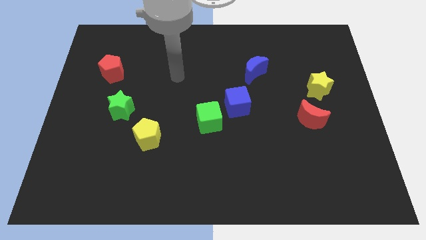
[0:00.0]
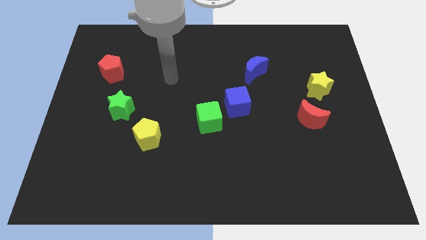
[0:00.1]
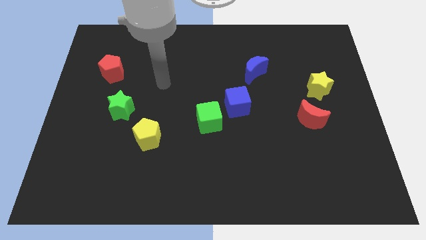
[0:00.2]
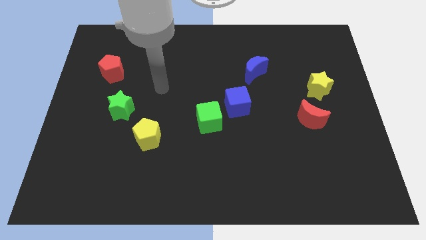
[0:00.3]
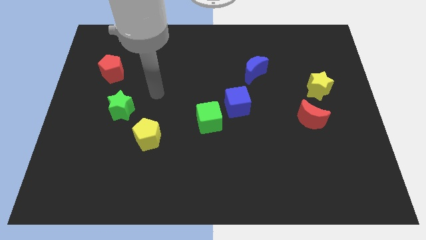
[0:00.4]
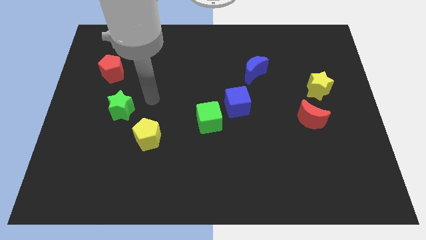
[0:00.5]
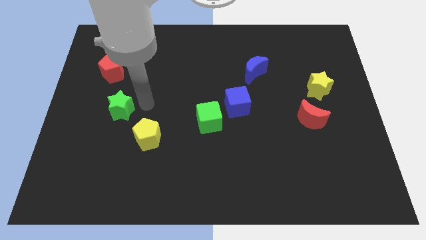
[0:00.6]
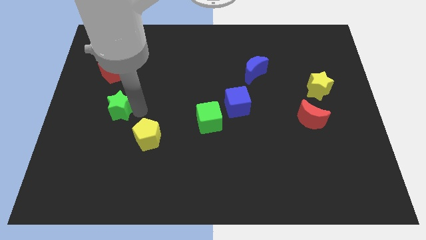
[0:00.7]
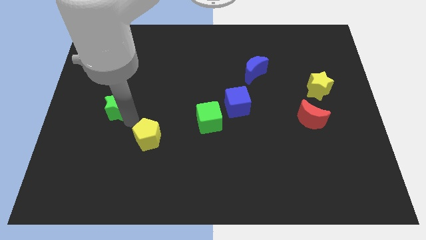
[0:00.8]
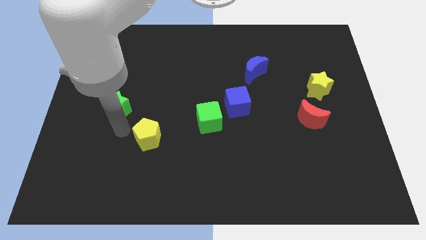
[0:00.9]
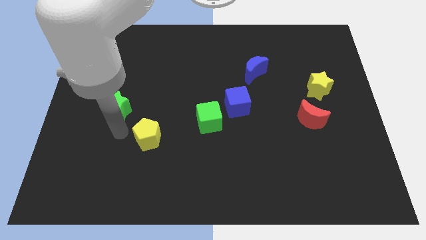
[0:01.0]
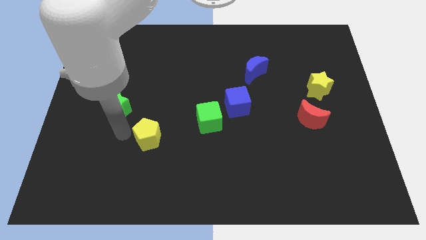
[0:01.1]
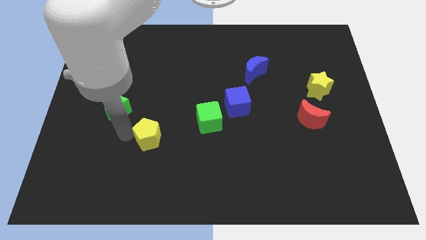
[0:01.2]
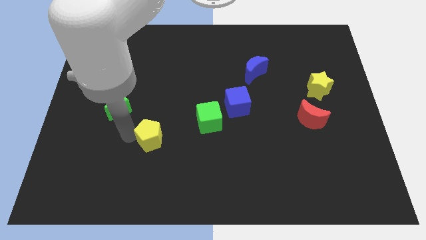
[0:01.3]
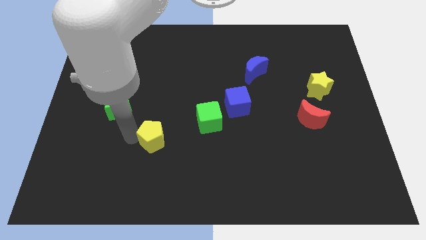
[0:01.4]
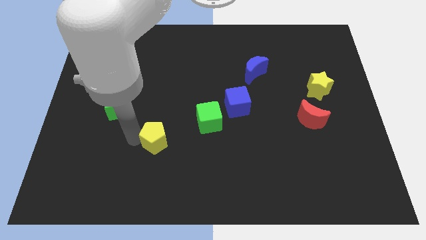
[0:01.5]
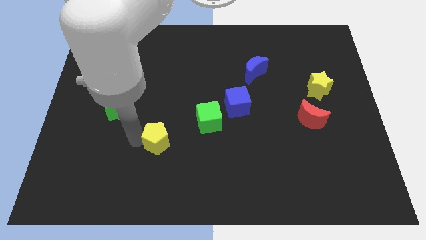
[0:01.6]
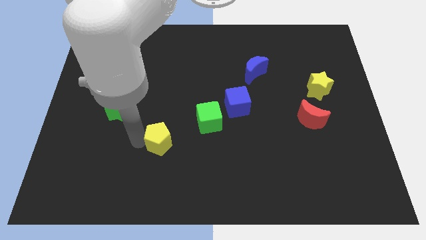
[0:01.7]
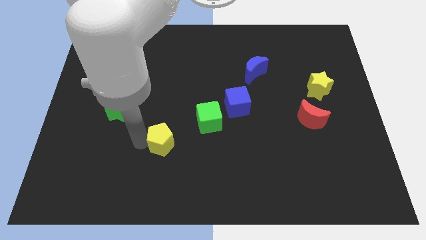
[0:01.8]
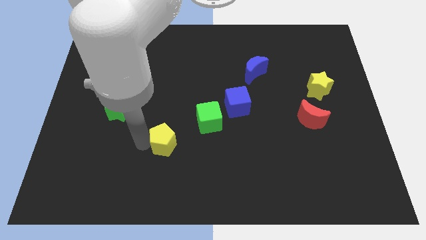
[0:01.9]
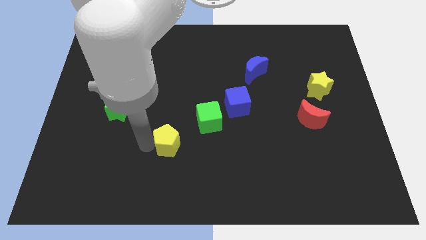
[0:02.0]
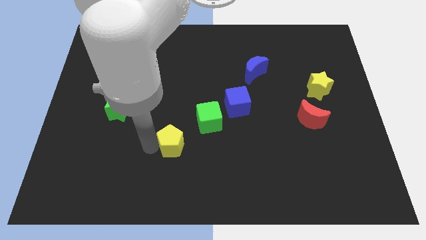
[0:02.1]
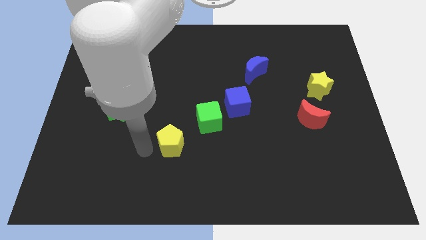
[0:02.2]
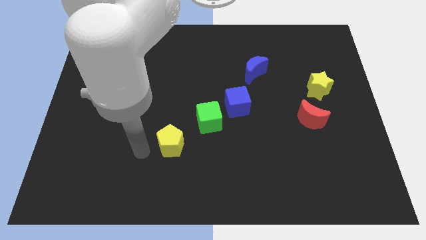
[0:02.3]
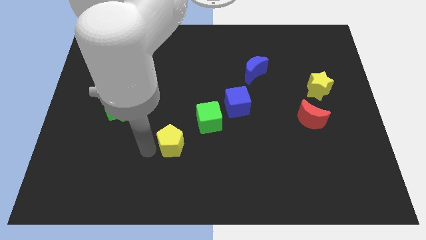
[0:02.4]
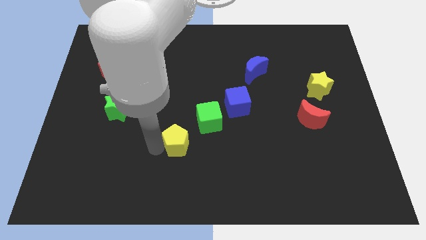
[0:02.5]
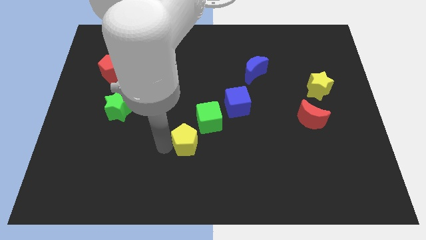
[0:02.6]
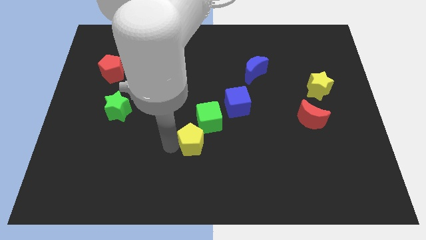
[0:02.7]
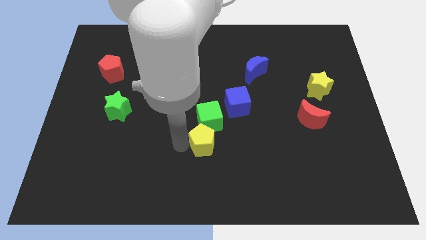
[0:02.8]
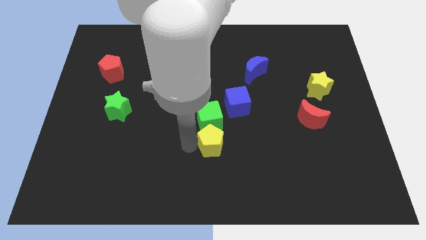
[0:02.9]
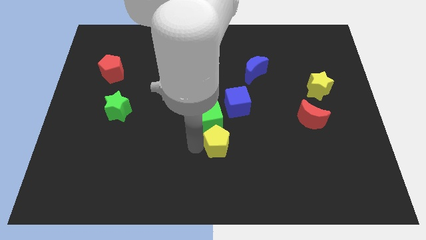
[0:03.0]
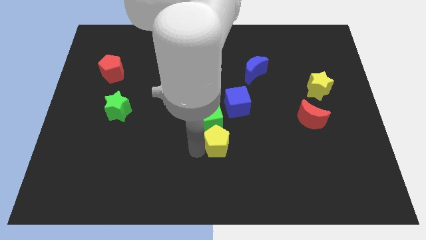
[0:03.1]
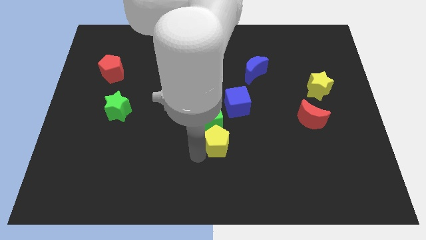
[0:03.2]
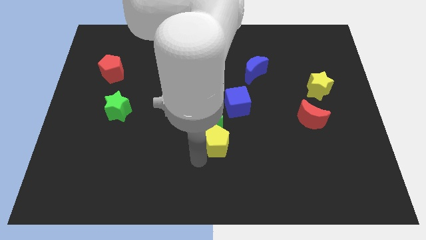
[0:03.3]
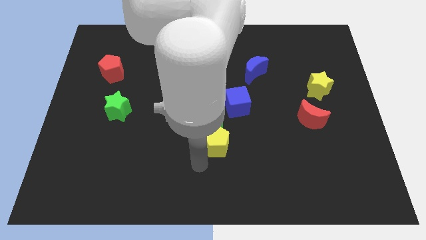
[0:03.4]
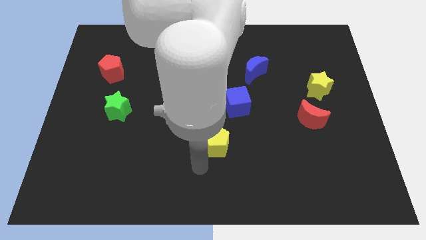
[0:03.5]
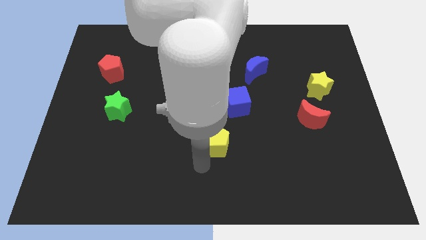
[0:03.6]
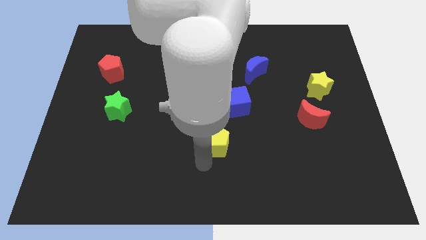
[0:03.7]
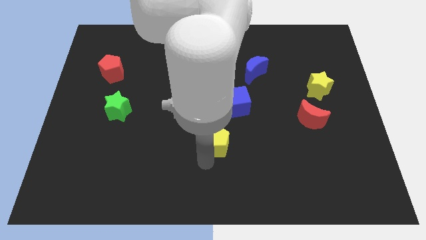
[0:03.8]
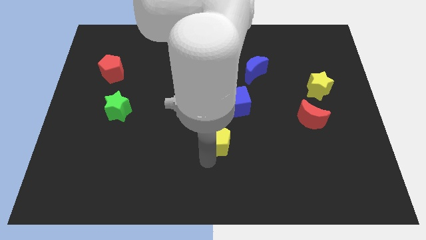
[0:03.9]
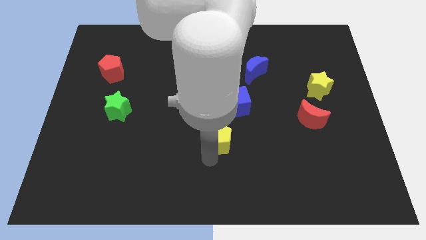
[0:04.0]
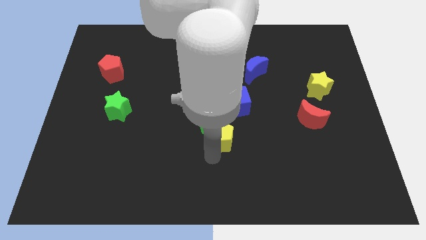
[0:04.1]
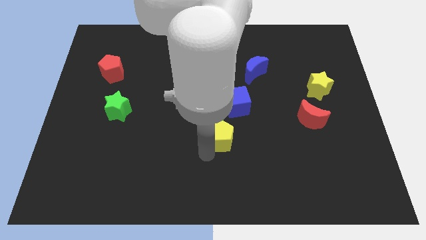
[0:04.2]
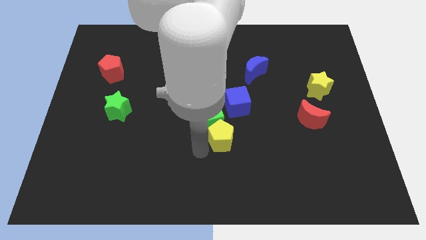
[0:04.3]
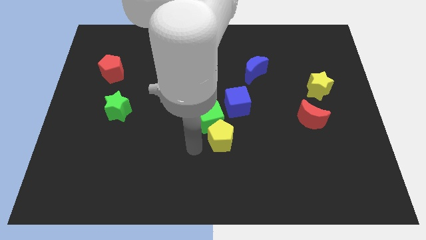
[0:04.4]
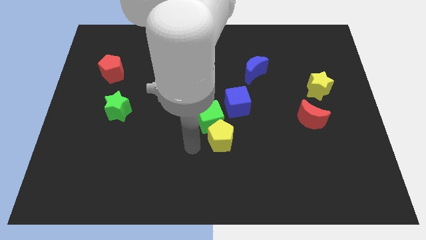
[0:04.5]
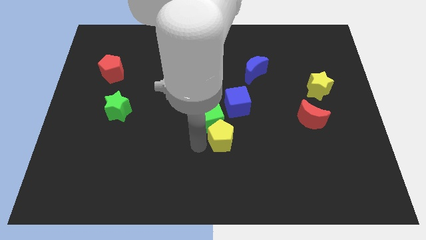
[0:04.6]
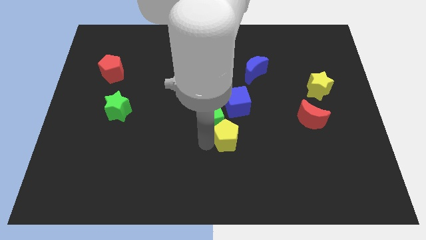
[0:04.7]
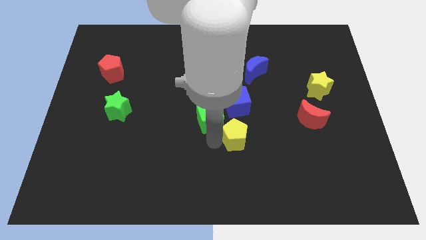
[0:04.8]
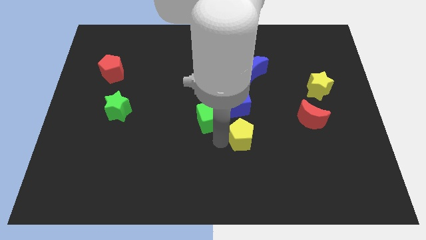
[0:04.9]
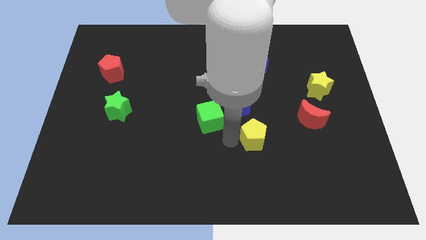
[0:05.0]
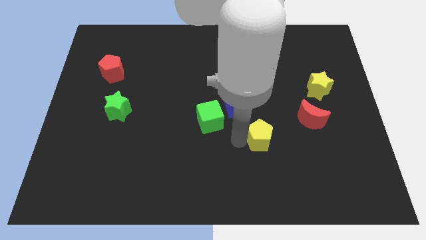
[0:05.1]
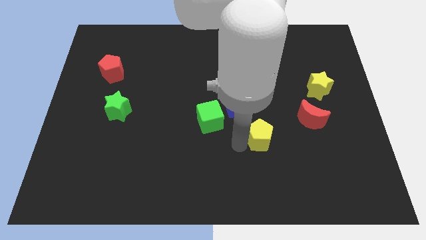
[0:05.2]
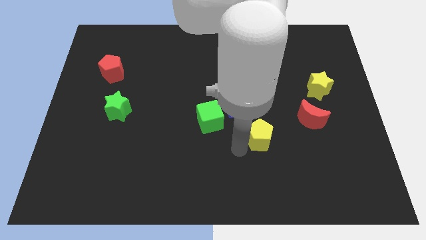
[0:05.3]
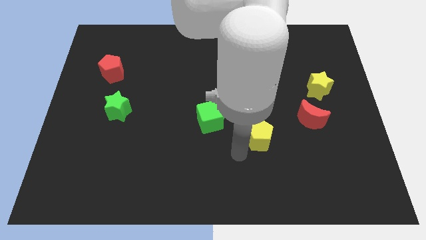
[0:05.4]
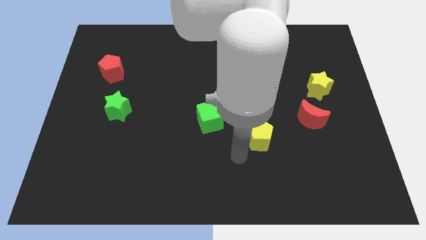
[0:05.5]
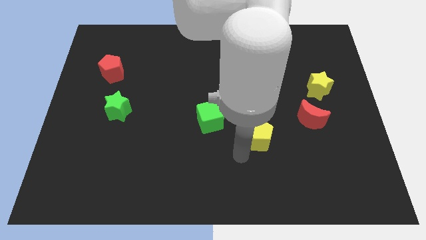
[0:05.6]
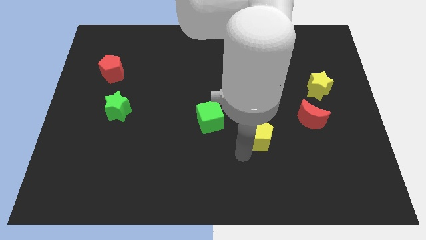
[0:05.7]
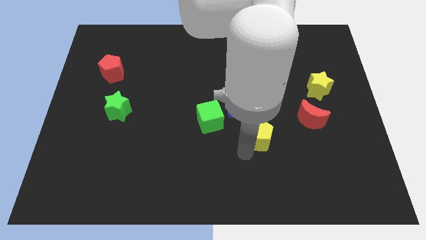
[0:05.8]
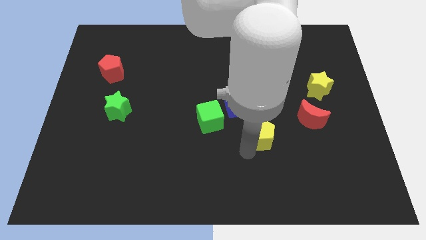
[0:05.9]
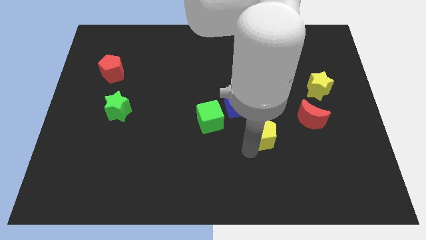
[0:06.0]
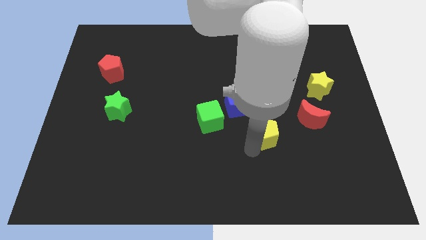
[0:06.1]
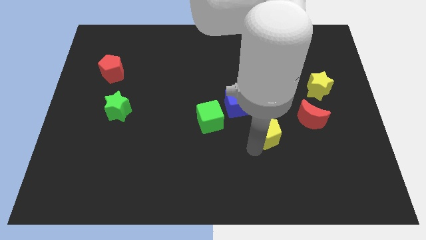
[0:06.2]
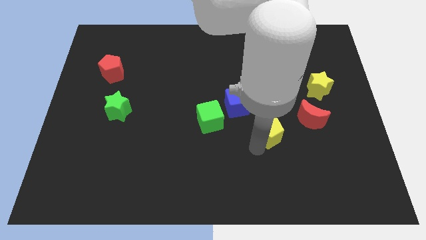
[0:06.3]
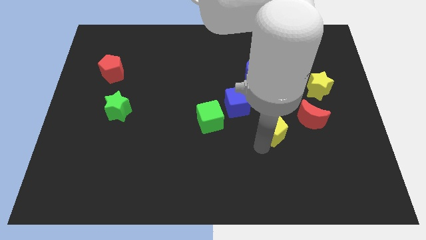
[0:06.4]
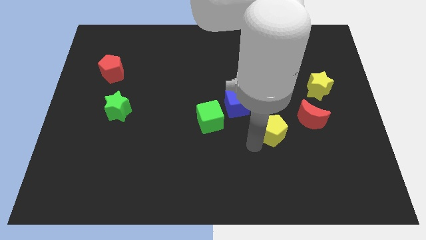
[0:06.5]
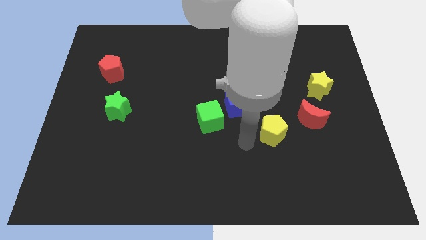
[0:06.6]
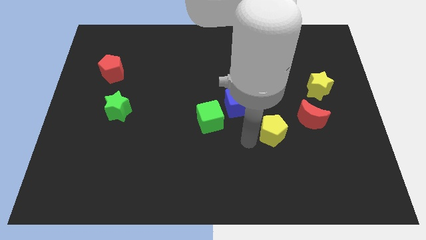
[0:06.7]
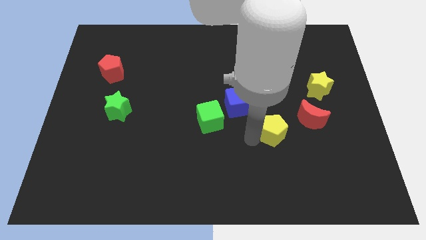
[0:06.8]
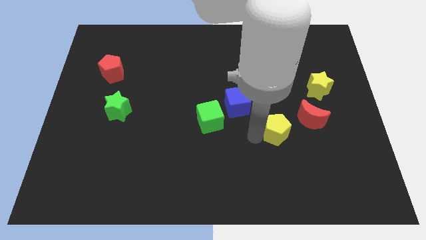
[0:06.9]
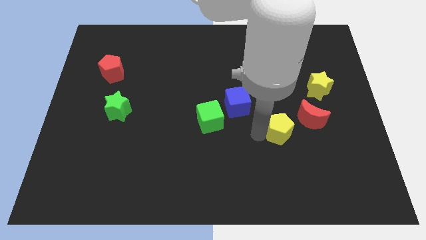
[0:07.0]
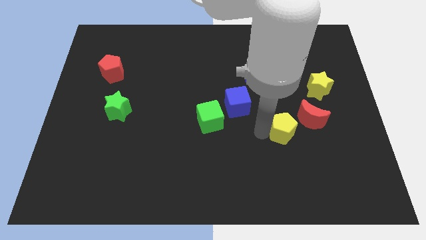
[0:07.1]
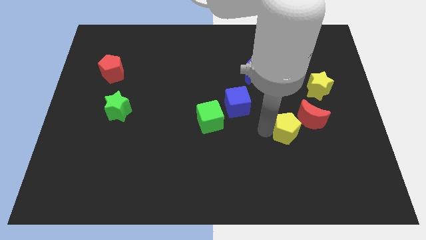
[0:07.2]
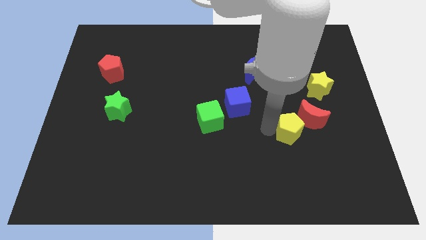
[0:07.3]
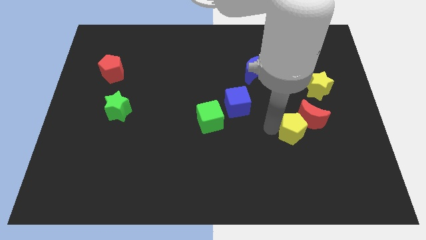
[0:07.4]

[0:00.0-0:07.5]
put the yellow pentagon next to the red moon
